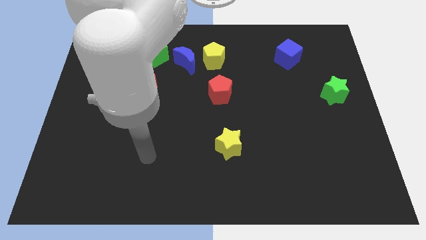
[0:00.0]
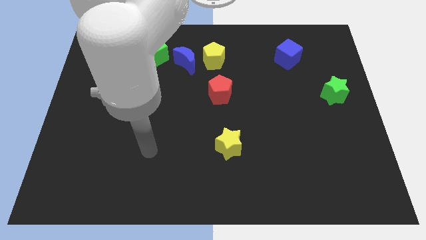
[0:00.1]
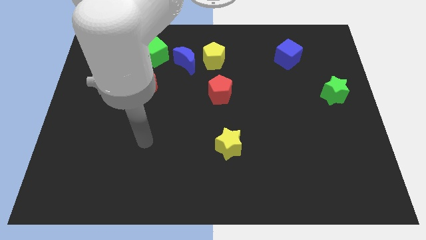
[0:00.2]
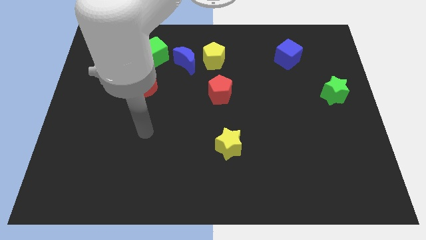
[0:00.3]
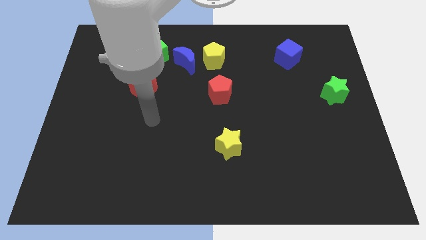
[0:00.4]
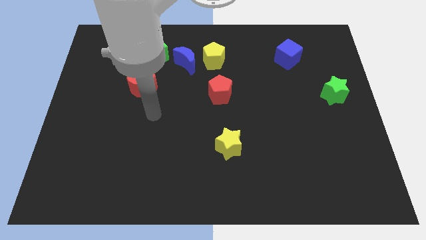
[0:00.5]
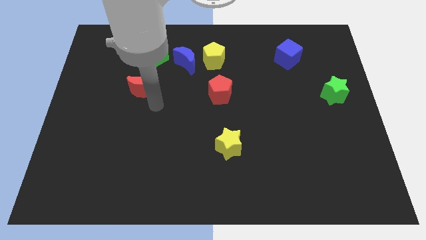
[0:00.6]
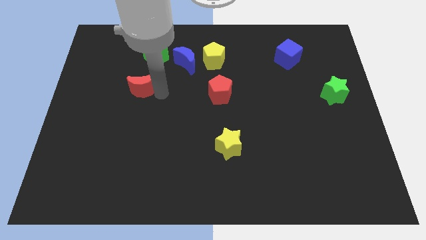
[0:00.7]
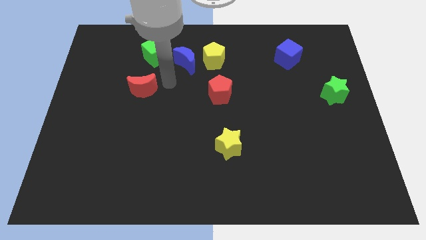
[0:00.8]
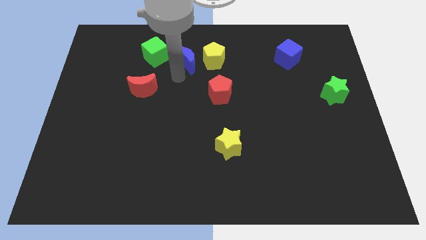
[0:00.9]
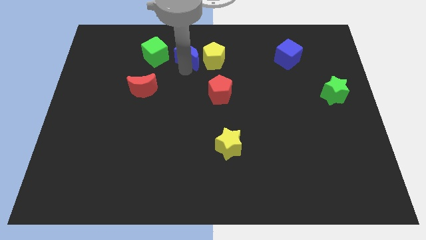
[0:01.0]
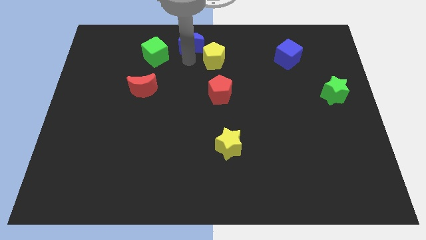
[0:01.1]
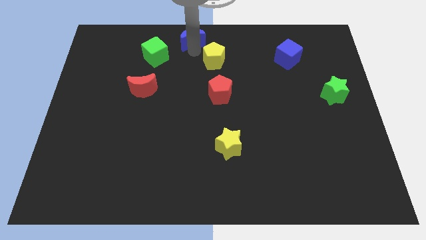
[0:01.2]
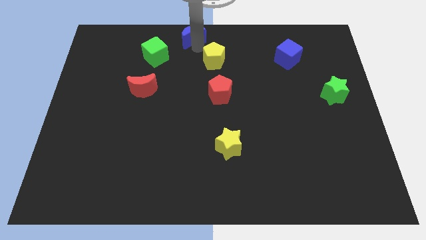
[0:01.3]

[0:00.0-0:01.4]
move the yellow pentagon away from the blue moon

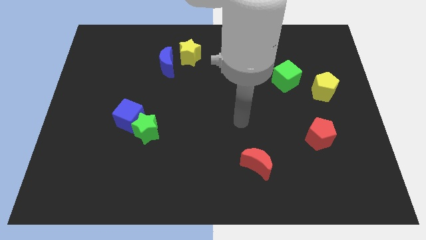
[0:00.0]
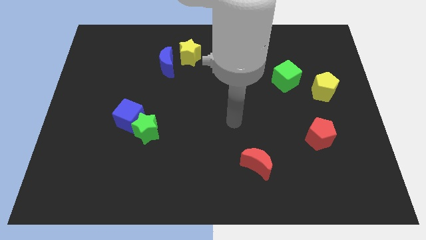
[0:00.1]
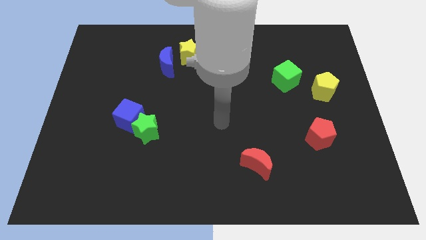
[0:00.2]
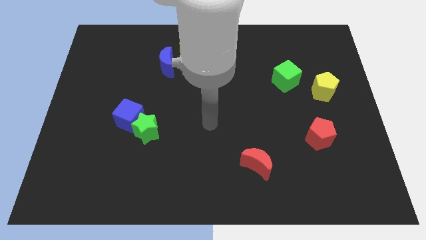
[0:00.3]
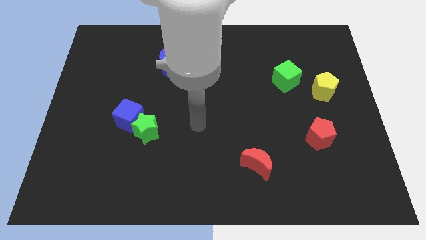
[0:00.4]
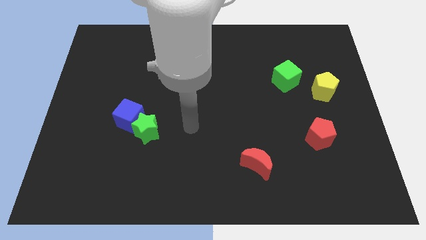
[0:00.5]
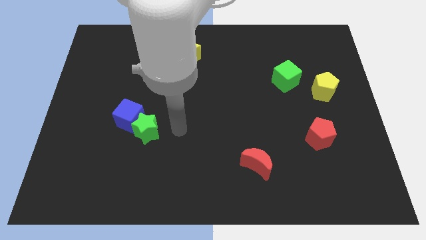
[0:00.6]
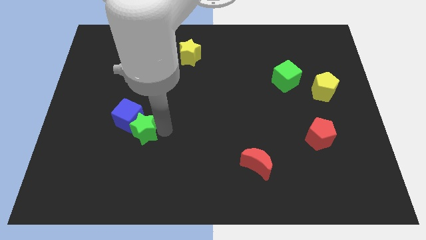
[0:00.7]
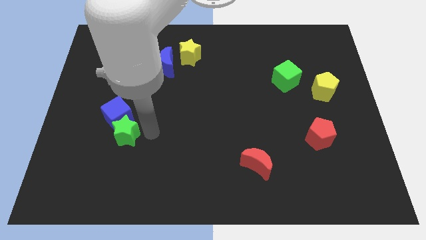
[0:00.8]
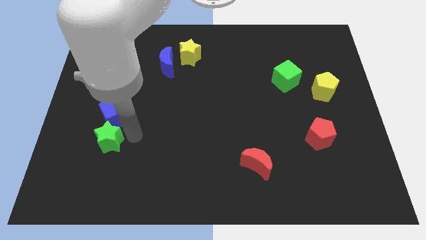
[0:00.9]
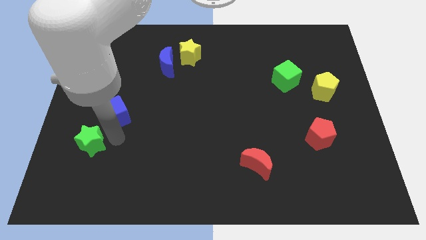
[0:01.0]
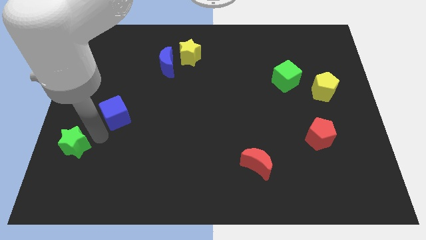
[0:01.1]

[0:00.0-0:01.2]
move the blue cube away from the green star

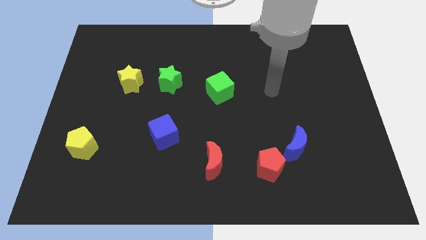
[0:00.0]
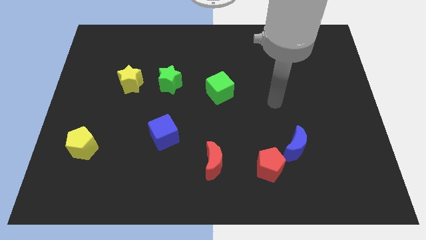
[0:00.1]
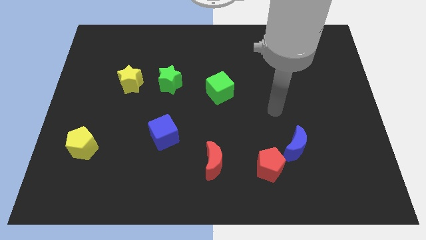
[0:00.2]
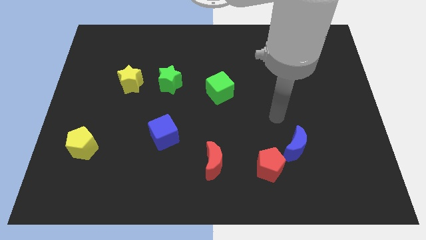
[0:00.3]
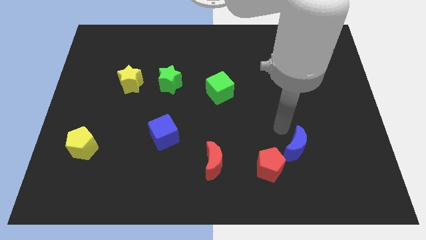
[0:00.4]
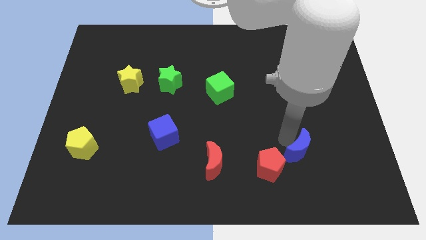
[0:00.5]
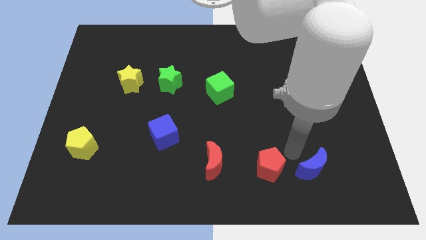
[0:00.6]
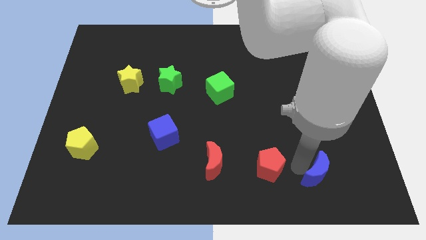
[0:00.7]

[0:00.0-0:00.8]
move the red pentagon away from the blue moon

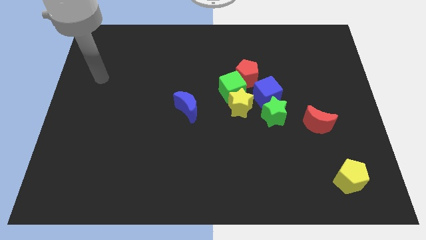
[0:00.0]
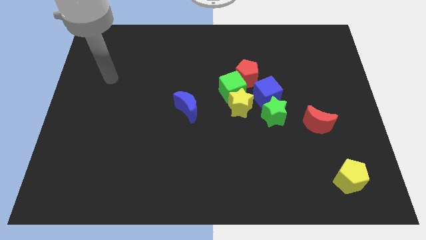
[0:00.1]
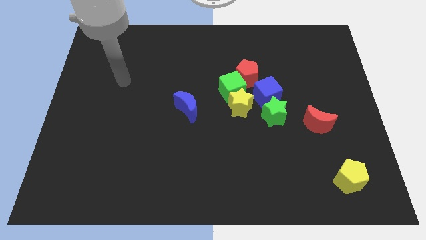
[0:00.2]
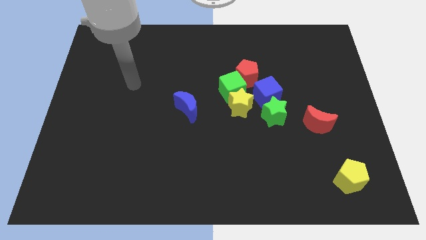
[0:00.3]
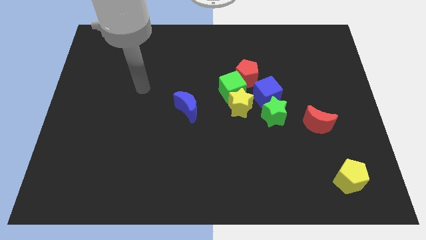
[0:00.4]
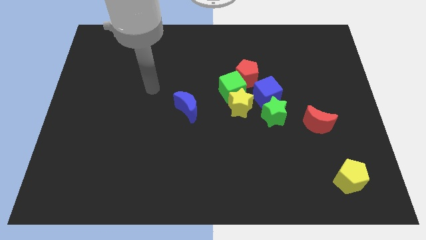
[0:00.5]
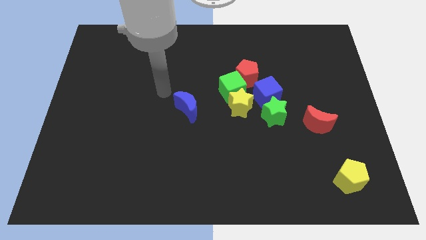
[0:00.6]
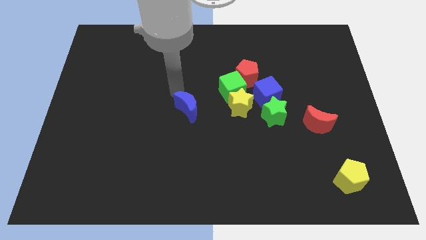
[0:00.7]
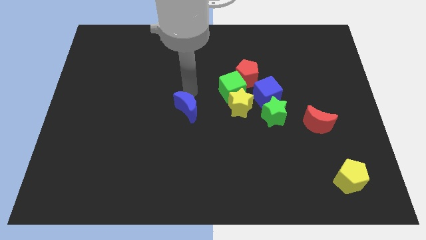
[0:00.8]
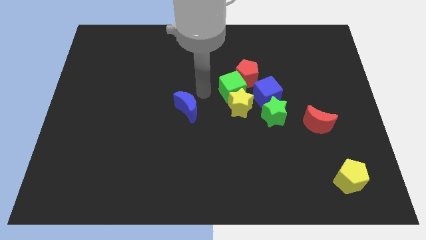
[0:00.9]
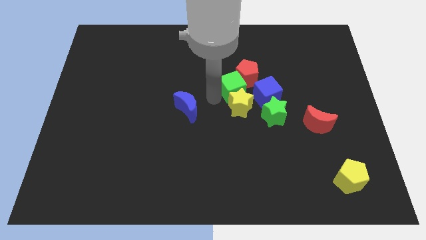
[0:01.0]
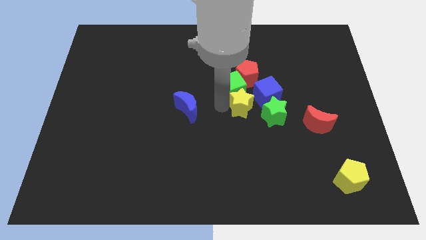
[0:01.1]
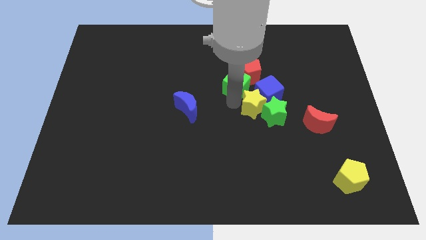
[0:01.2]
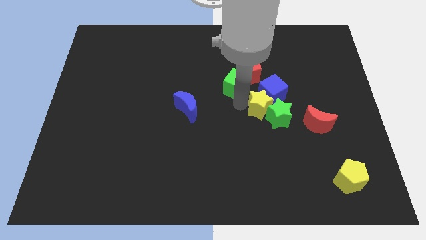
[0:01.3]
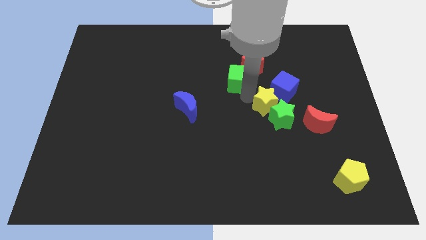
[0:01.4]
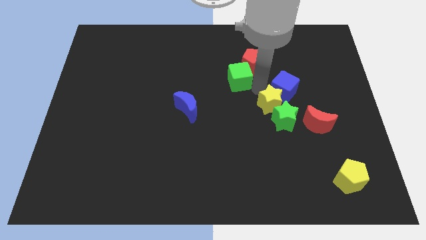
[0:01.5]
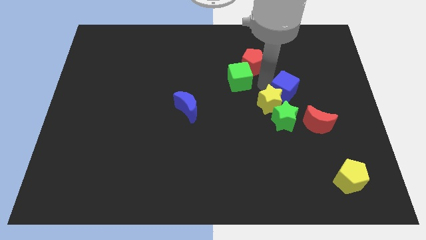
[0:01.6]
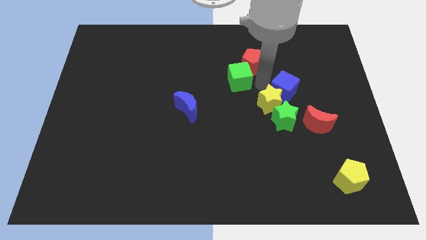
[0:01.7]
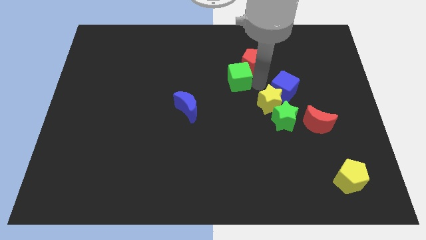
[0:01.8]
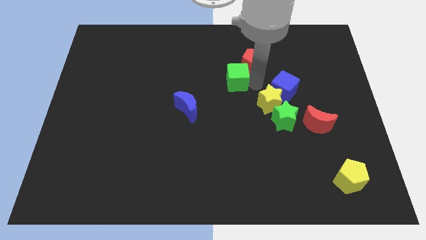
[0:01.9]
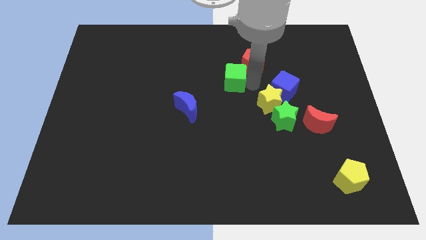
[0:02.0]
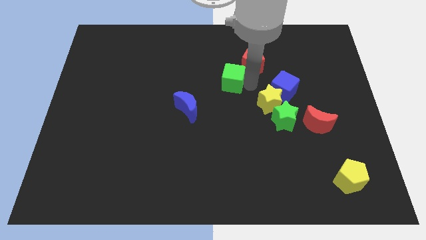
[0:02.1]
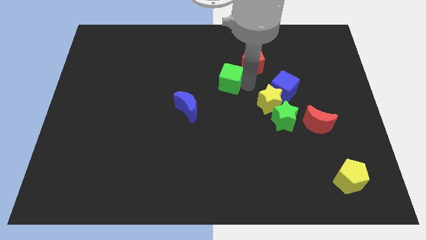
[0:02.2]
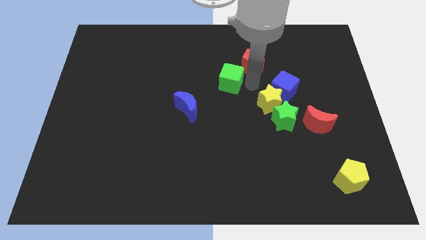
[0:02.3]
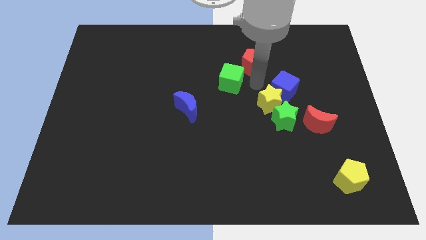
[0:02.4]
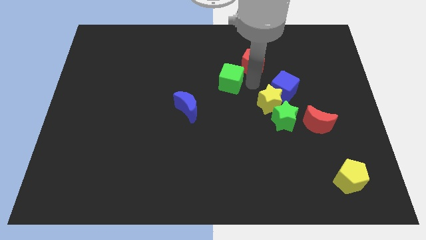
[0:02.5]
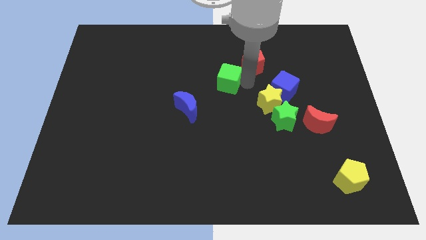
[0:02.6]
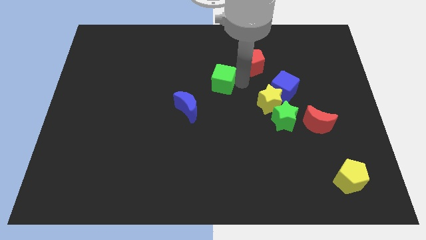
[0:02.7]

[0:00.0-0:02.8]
separate the green cube from the yellow star, red pentagon, and blue cube

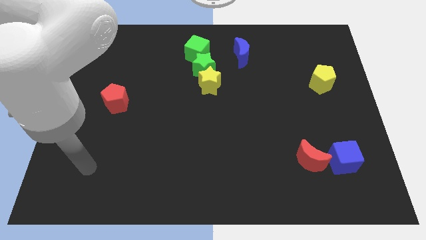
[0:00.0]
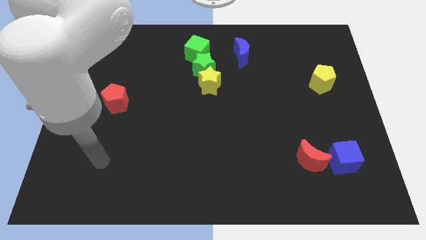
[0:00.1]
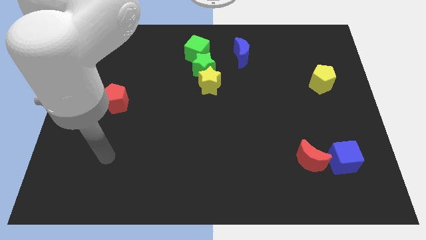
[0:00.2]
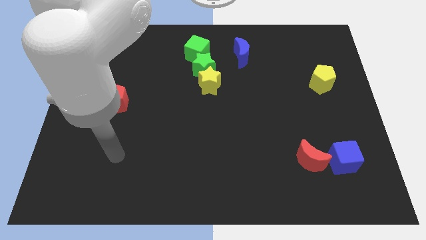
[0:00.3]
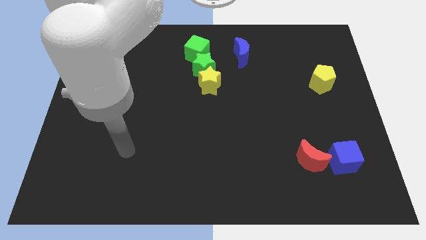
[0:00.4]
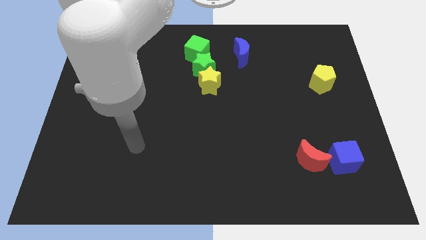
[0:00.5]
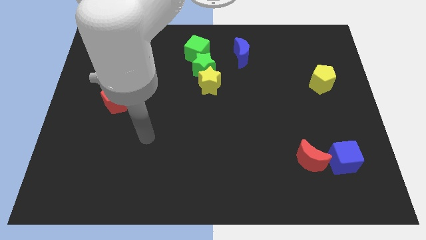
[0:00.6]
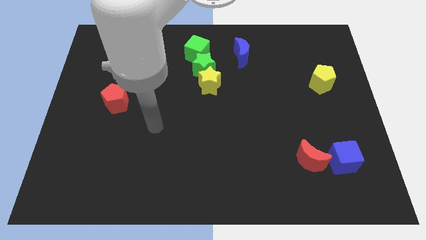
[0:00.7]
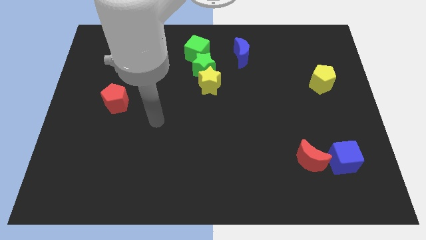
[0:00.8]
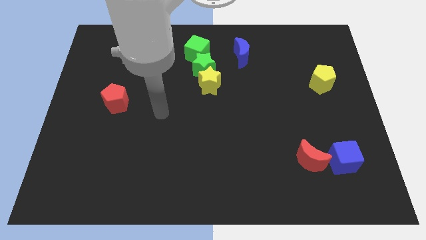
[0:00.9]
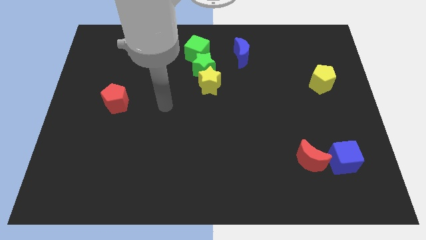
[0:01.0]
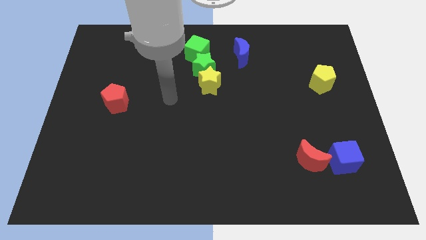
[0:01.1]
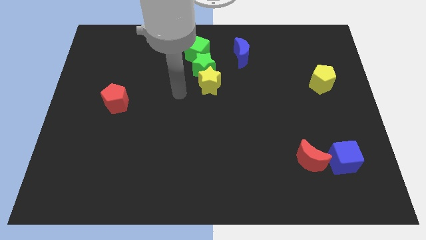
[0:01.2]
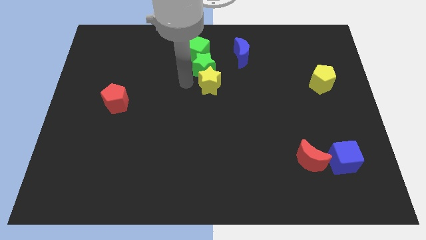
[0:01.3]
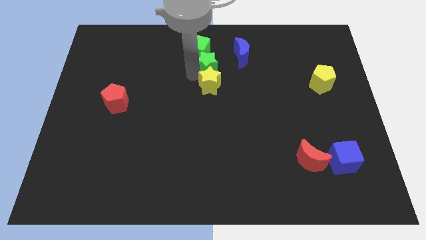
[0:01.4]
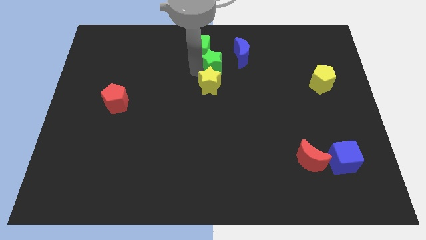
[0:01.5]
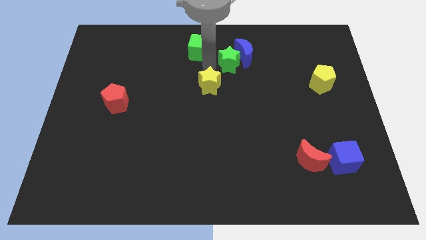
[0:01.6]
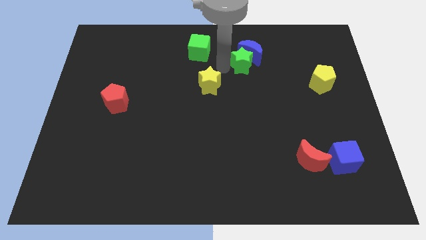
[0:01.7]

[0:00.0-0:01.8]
pull the yellow star apart from the green star

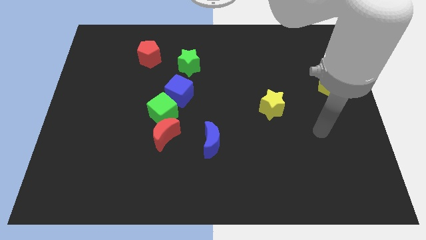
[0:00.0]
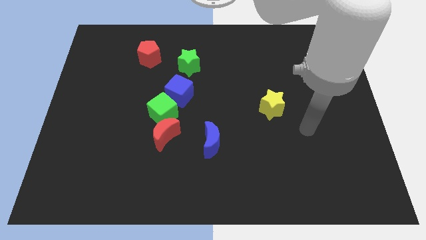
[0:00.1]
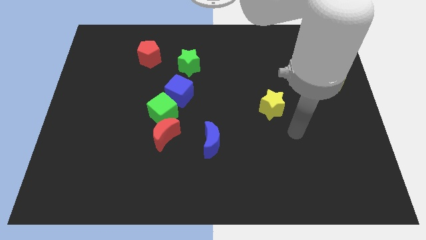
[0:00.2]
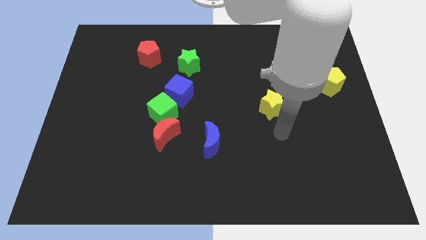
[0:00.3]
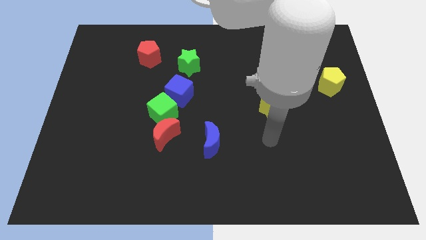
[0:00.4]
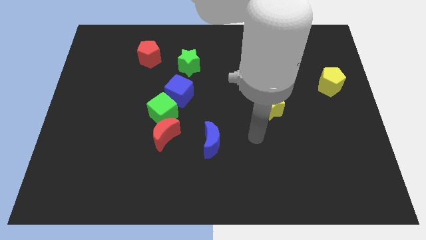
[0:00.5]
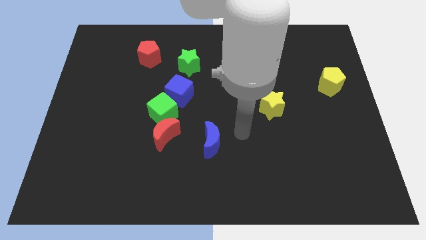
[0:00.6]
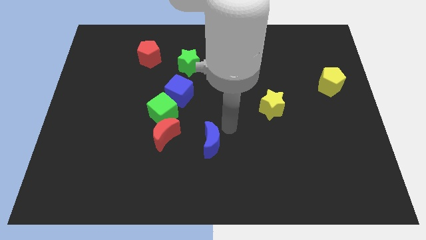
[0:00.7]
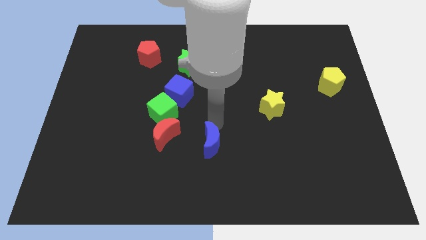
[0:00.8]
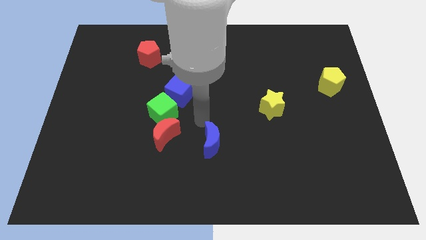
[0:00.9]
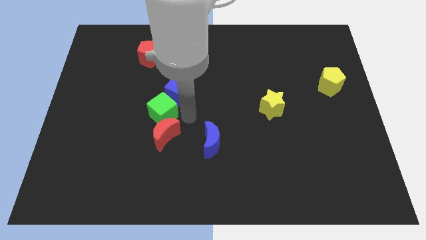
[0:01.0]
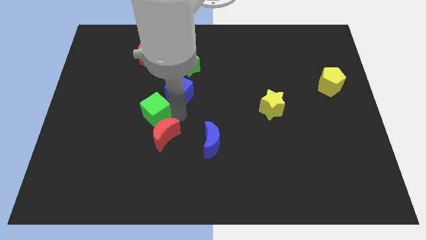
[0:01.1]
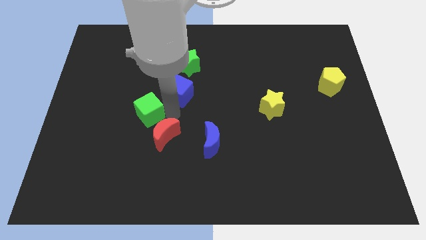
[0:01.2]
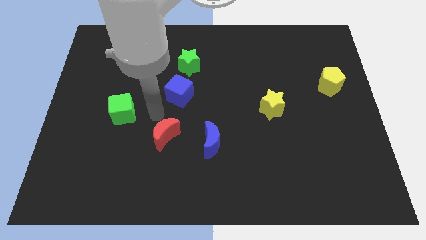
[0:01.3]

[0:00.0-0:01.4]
separate the red moon from the green cube
